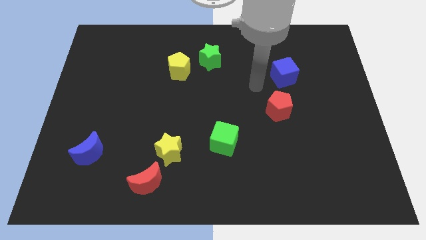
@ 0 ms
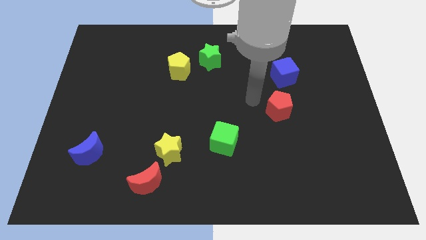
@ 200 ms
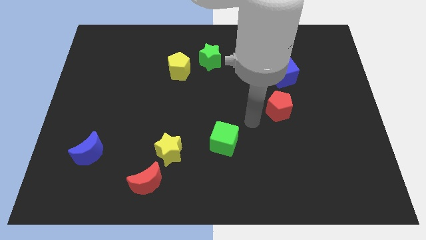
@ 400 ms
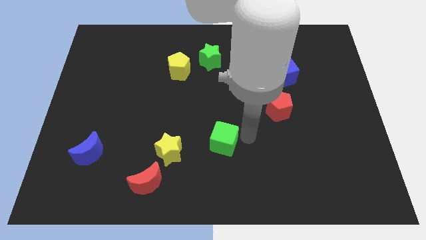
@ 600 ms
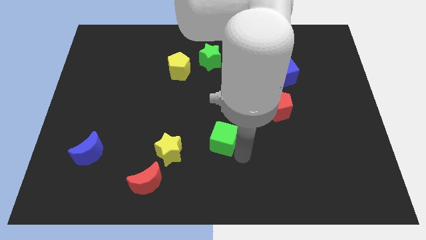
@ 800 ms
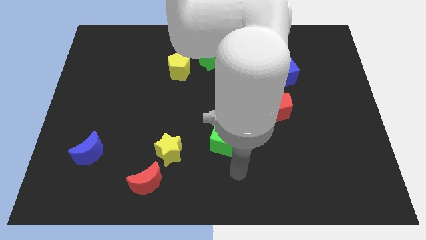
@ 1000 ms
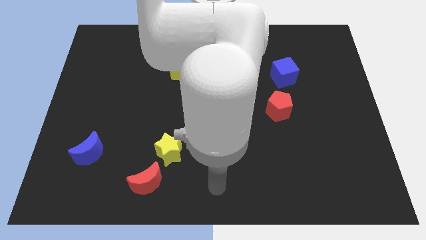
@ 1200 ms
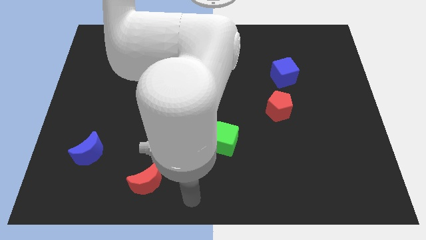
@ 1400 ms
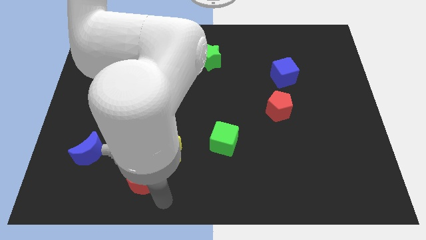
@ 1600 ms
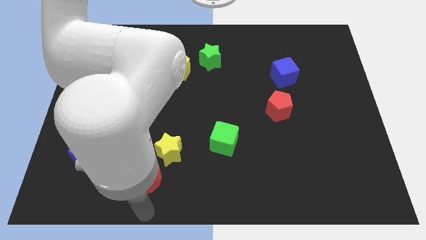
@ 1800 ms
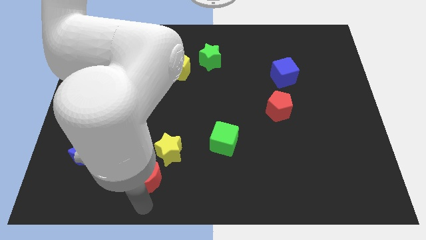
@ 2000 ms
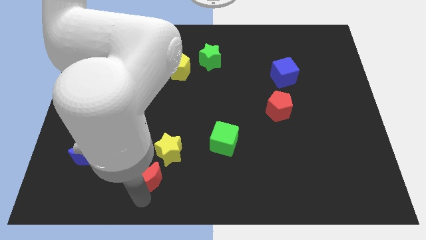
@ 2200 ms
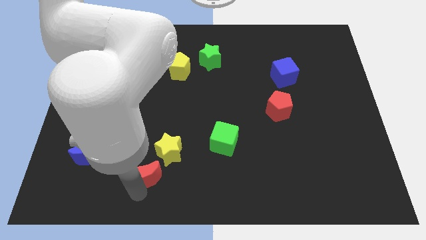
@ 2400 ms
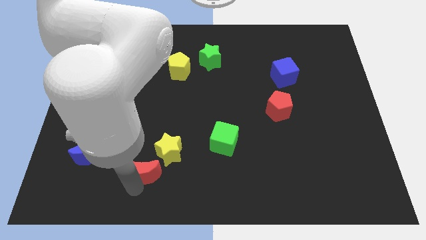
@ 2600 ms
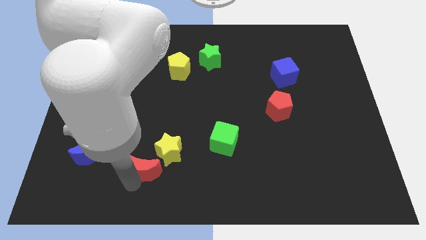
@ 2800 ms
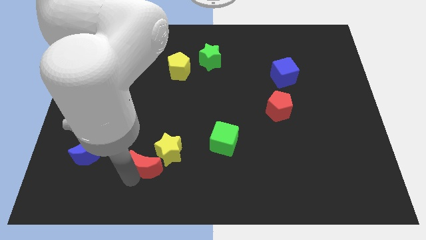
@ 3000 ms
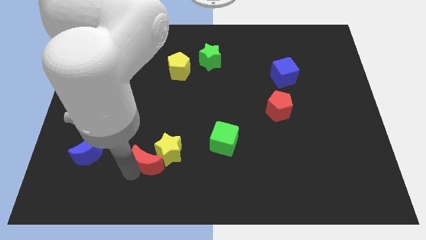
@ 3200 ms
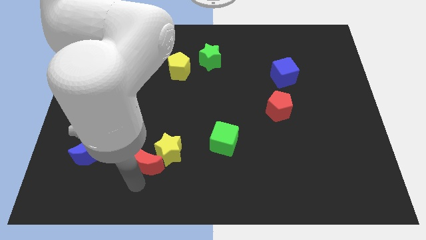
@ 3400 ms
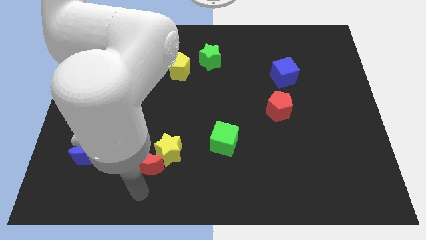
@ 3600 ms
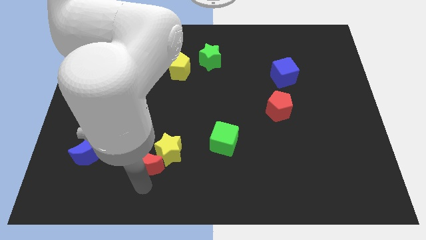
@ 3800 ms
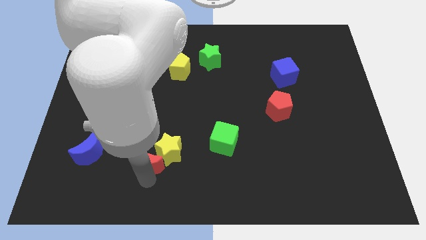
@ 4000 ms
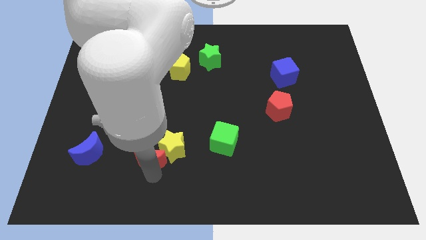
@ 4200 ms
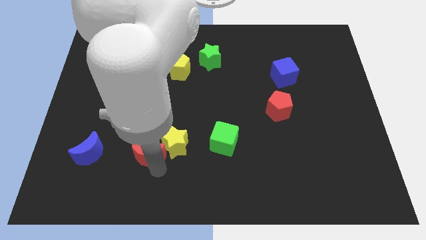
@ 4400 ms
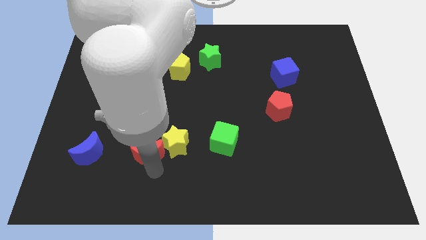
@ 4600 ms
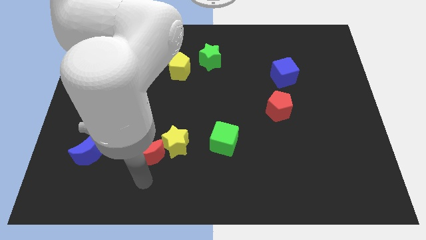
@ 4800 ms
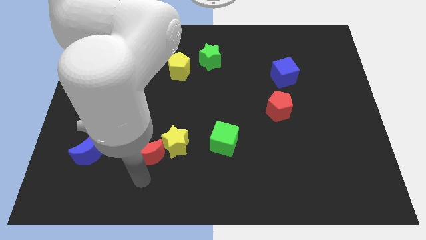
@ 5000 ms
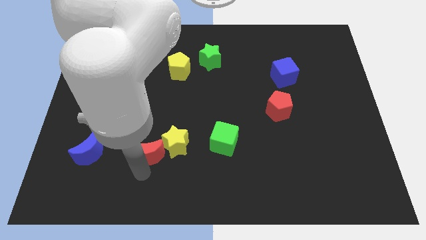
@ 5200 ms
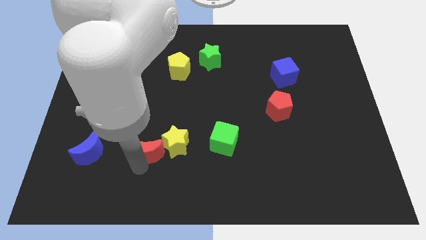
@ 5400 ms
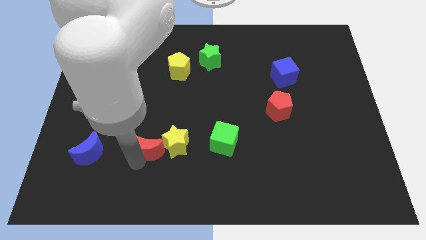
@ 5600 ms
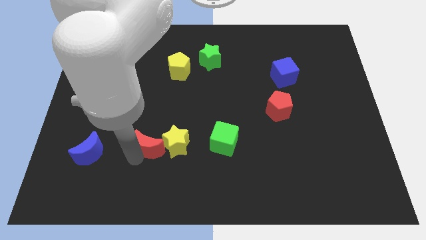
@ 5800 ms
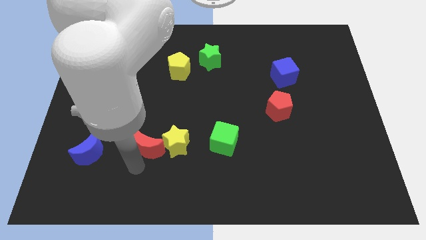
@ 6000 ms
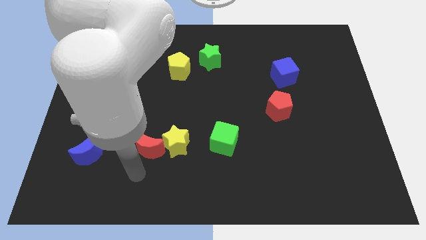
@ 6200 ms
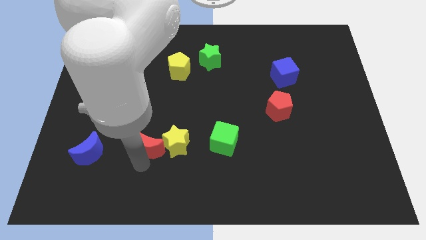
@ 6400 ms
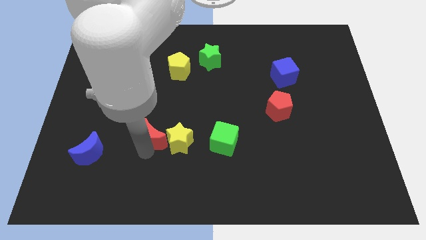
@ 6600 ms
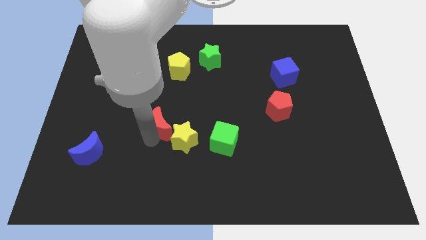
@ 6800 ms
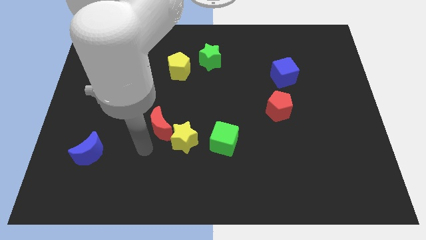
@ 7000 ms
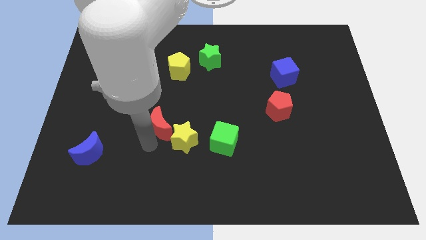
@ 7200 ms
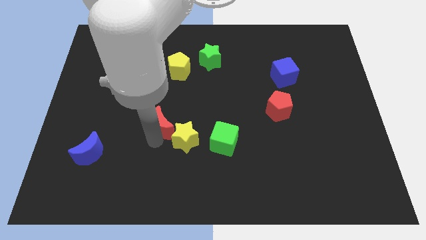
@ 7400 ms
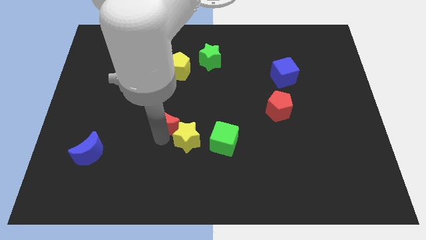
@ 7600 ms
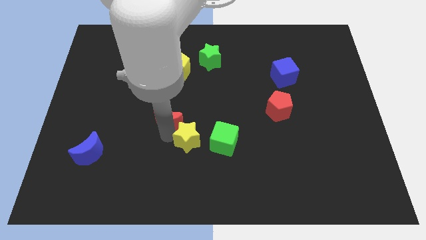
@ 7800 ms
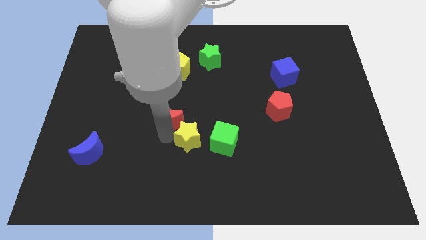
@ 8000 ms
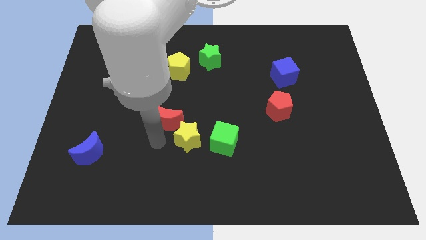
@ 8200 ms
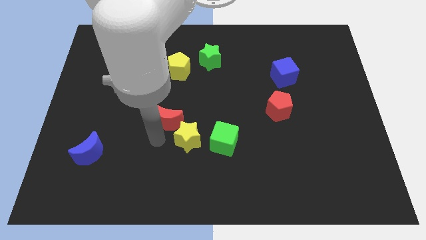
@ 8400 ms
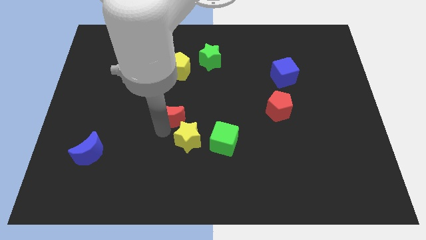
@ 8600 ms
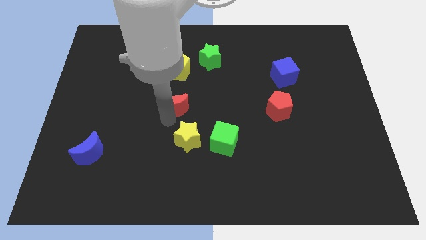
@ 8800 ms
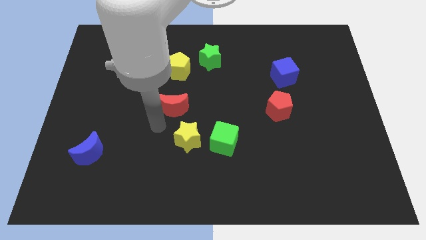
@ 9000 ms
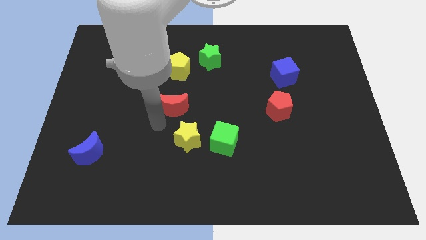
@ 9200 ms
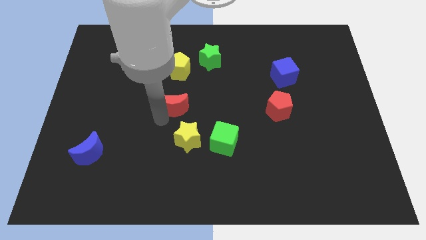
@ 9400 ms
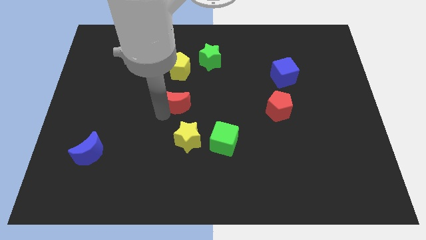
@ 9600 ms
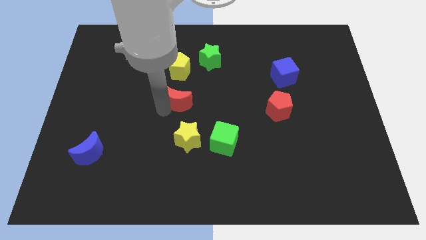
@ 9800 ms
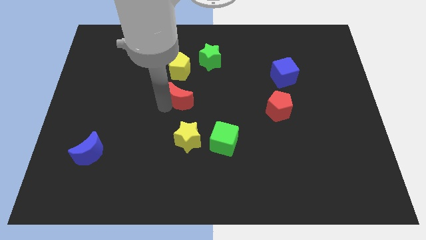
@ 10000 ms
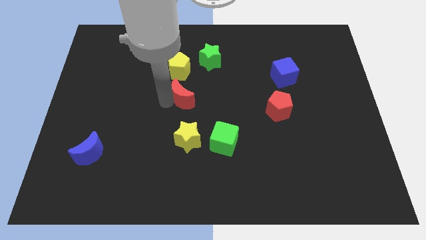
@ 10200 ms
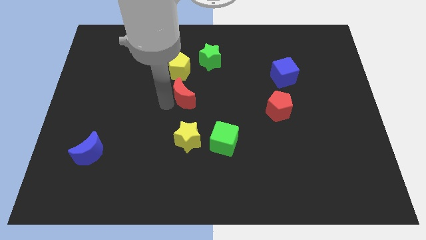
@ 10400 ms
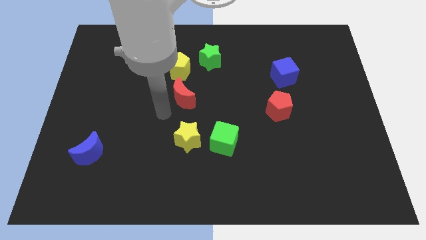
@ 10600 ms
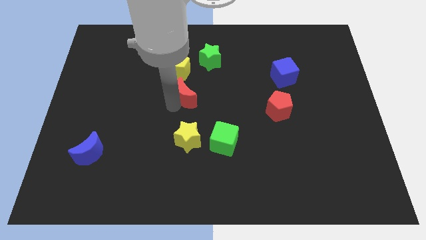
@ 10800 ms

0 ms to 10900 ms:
push the red moon to the bottom right side of the yellow pentagon

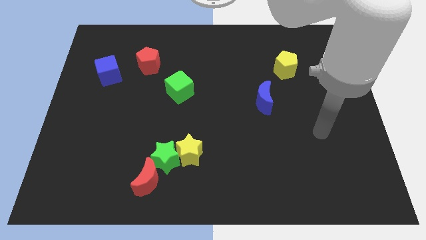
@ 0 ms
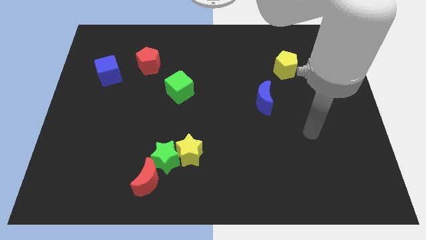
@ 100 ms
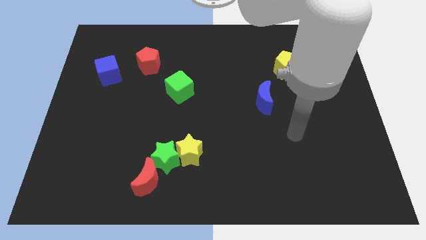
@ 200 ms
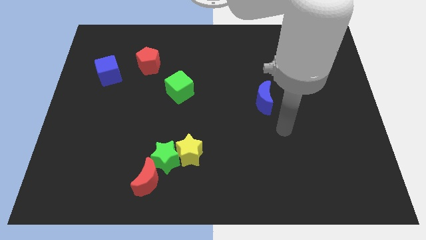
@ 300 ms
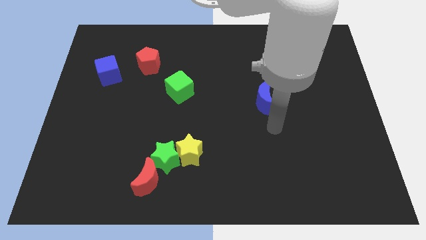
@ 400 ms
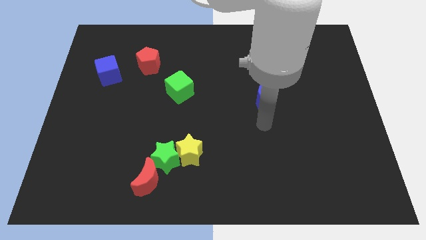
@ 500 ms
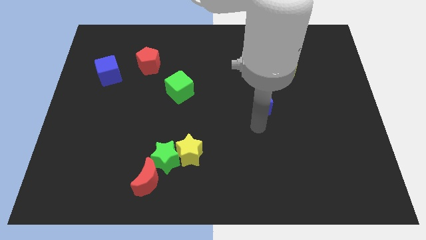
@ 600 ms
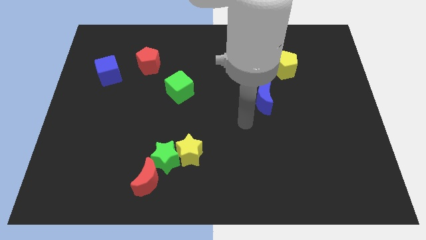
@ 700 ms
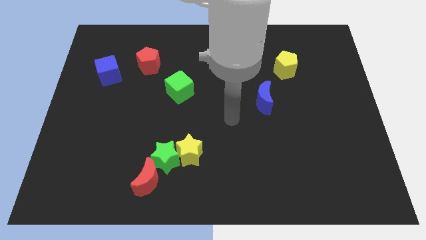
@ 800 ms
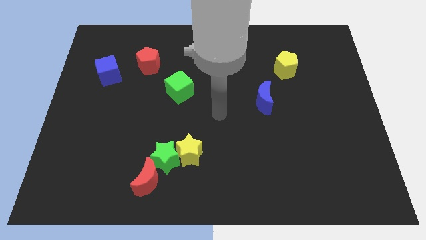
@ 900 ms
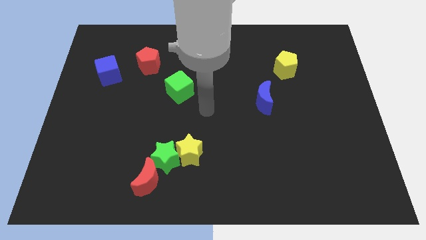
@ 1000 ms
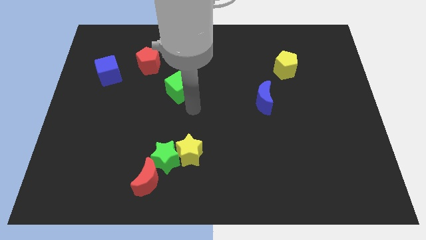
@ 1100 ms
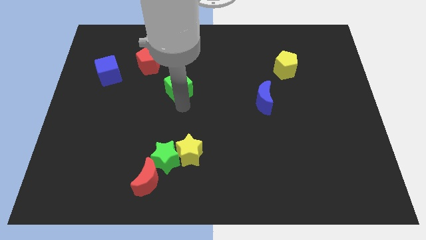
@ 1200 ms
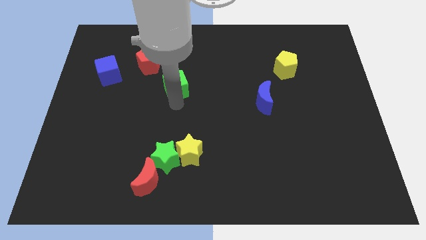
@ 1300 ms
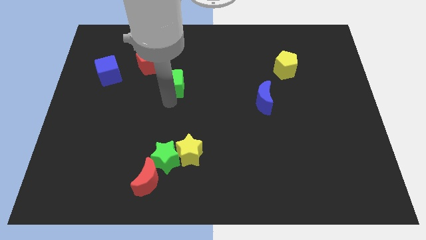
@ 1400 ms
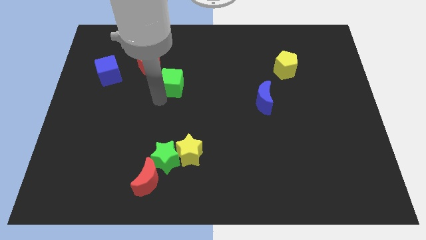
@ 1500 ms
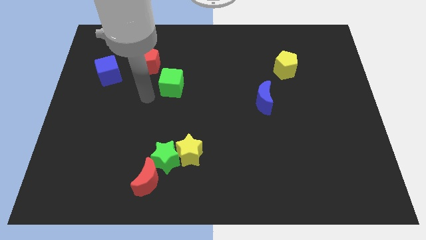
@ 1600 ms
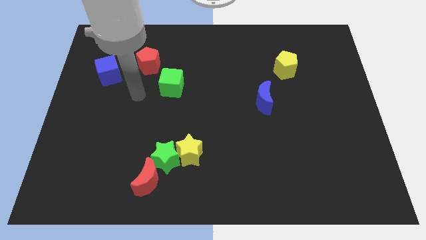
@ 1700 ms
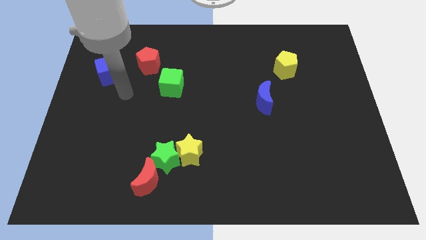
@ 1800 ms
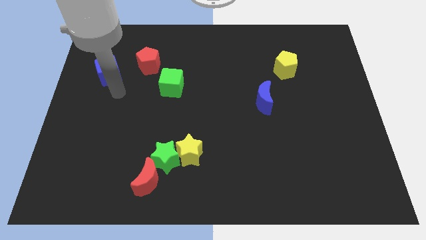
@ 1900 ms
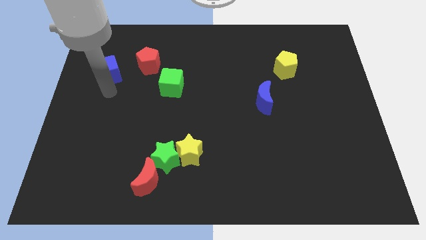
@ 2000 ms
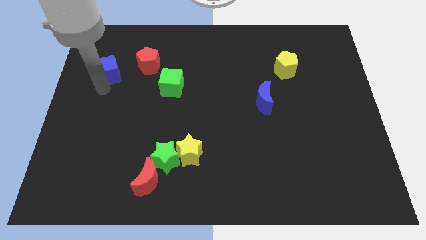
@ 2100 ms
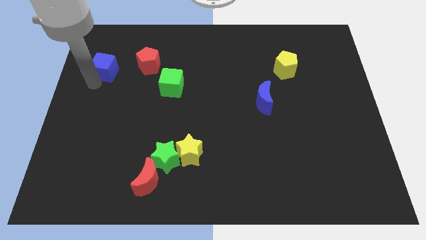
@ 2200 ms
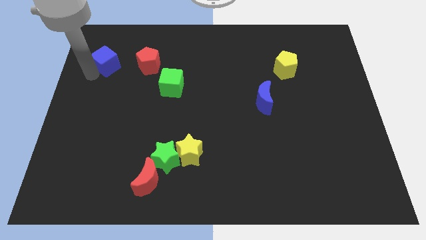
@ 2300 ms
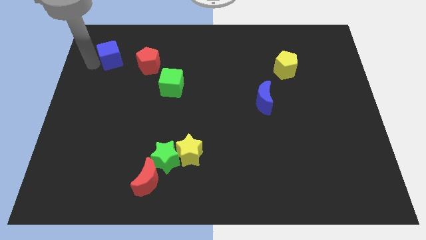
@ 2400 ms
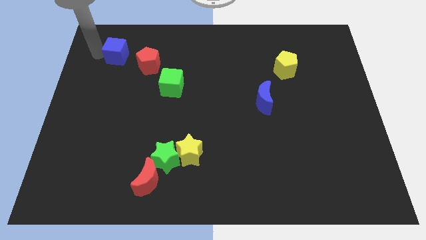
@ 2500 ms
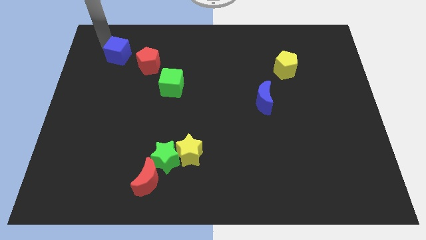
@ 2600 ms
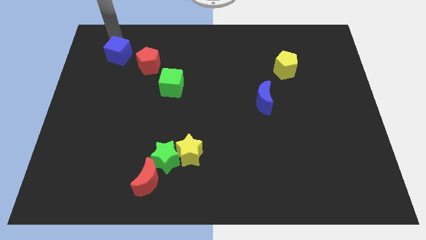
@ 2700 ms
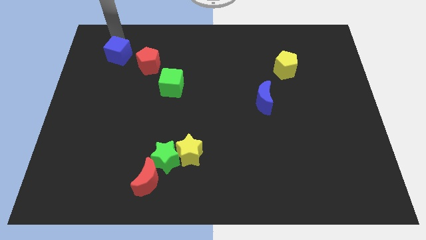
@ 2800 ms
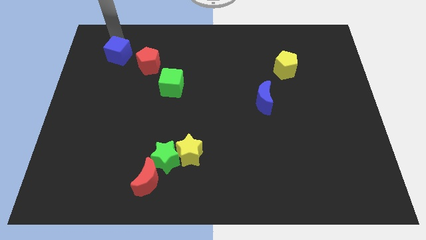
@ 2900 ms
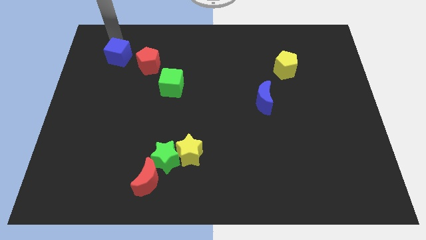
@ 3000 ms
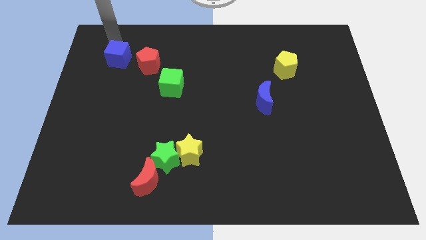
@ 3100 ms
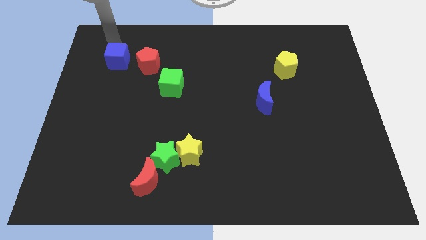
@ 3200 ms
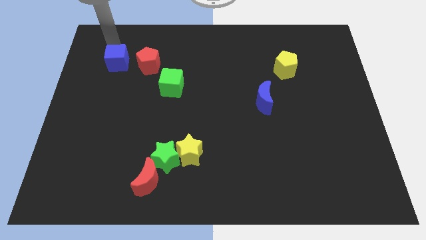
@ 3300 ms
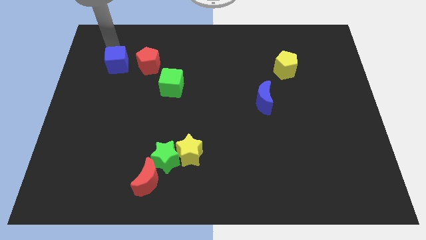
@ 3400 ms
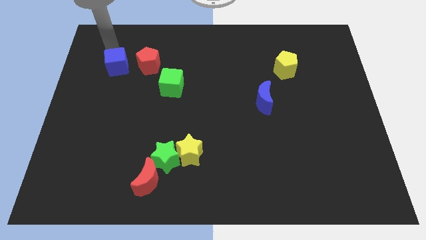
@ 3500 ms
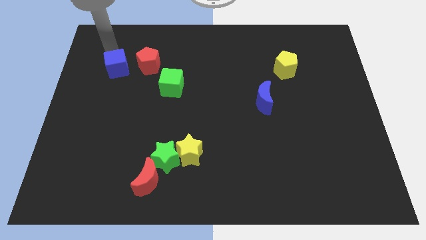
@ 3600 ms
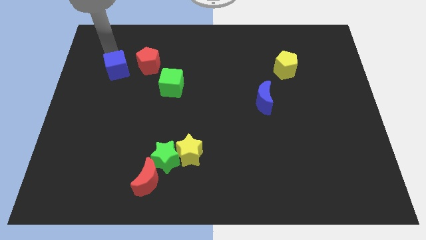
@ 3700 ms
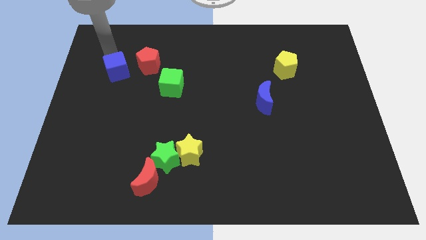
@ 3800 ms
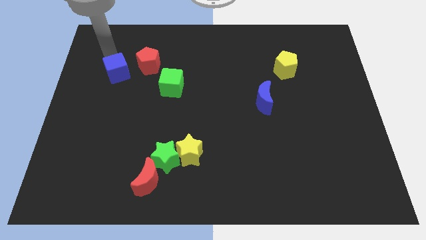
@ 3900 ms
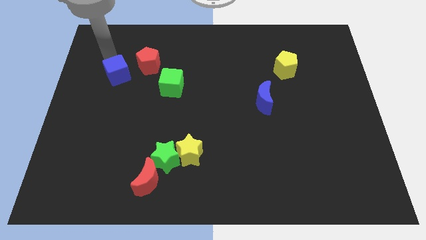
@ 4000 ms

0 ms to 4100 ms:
push the blue cube just left of the green cube
